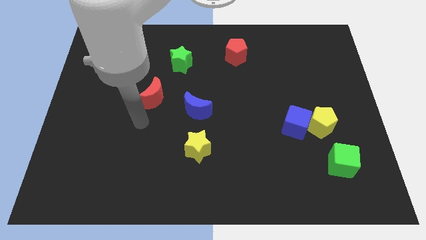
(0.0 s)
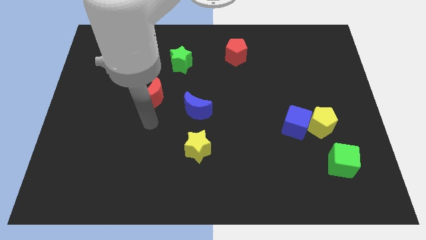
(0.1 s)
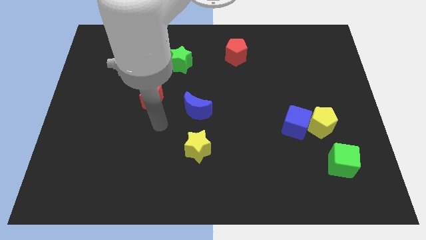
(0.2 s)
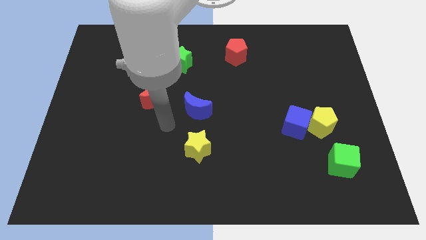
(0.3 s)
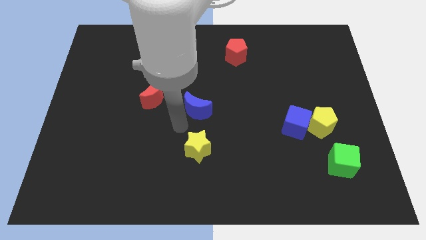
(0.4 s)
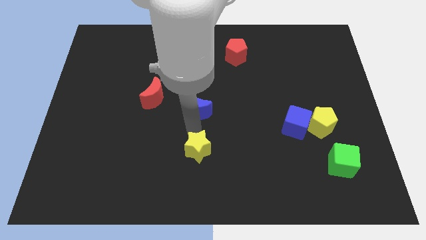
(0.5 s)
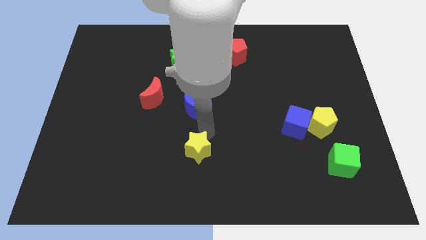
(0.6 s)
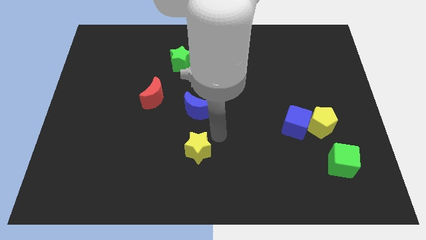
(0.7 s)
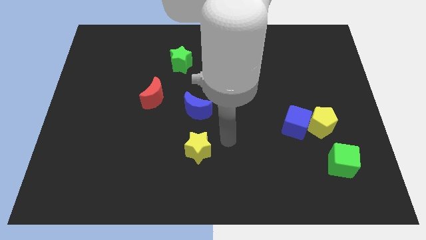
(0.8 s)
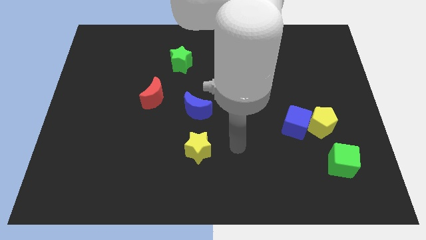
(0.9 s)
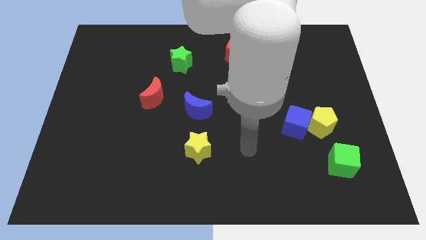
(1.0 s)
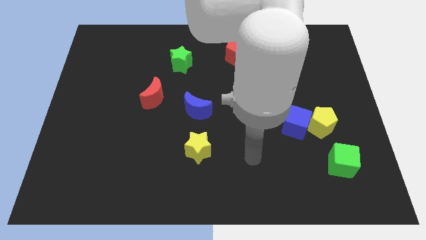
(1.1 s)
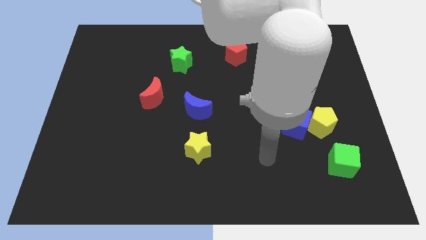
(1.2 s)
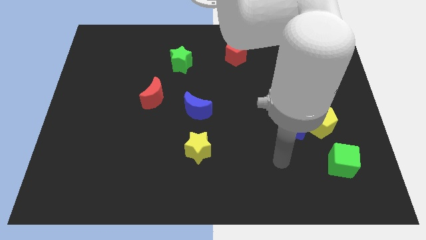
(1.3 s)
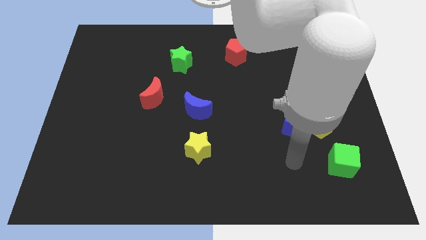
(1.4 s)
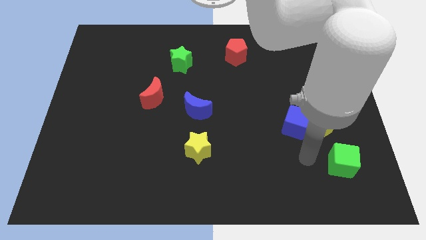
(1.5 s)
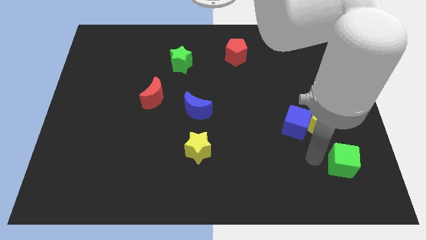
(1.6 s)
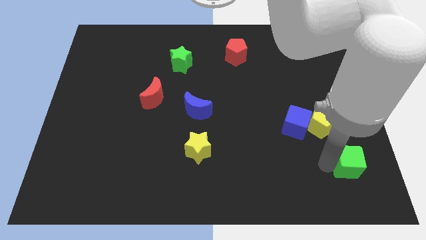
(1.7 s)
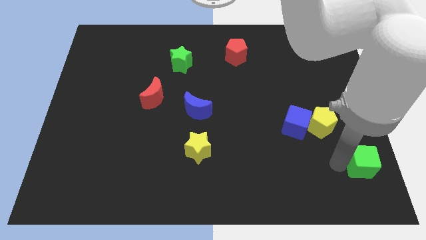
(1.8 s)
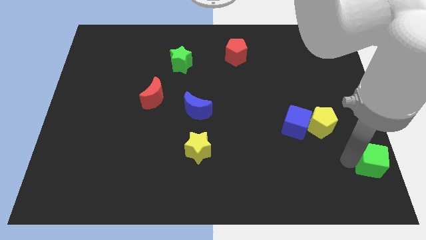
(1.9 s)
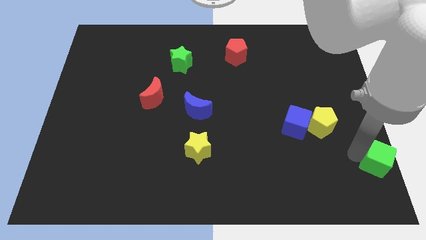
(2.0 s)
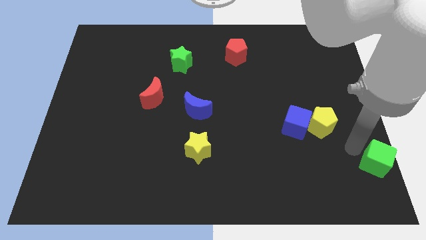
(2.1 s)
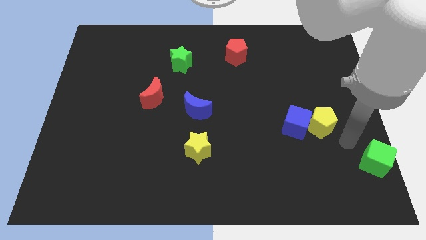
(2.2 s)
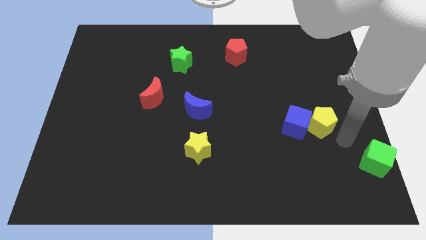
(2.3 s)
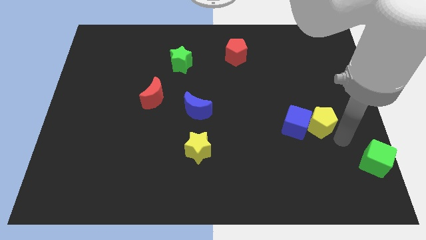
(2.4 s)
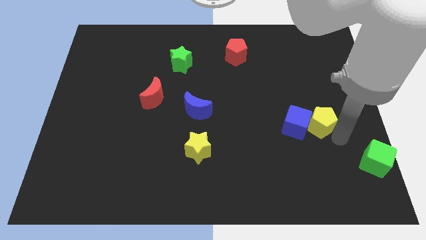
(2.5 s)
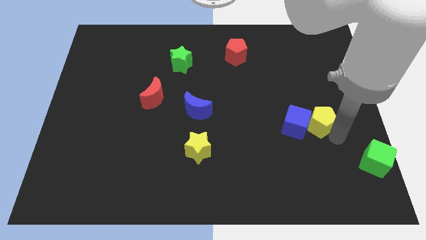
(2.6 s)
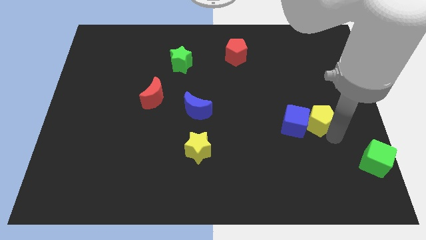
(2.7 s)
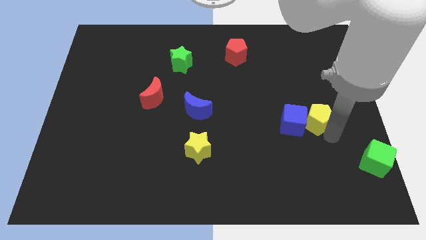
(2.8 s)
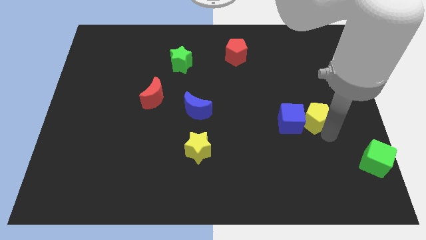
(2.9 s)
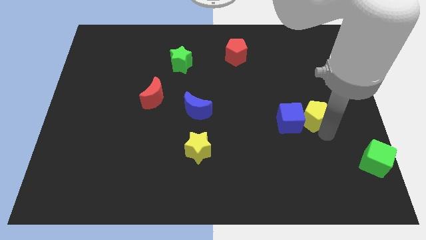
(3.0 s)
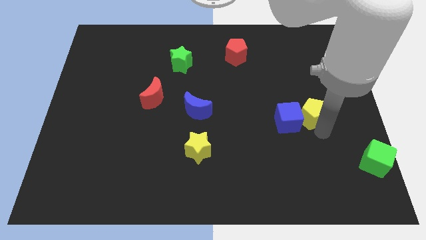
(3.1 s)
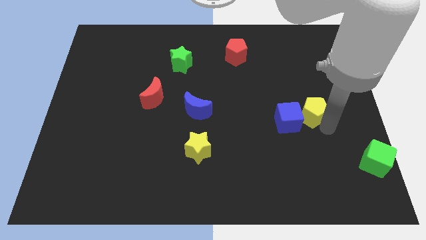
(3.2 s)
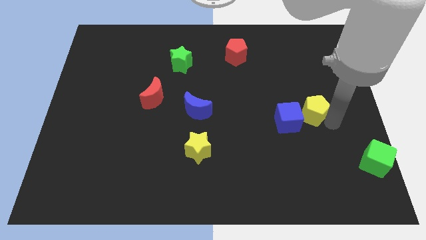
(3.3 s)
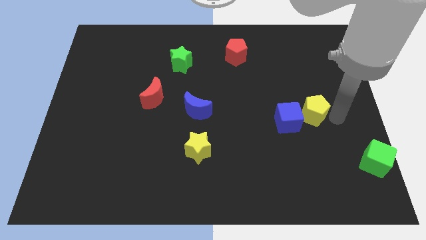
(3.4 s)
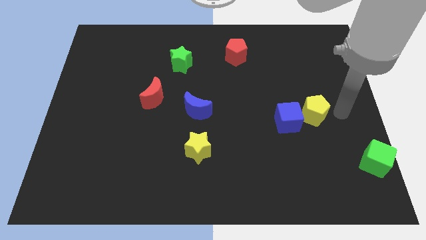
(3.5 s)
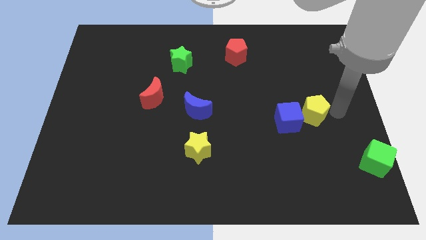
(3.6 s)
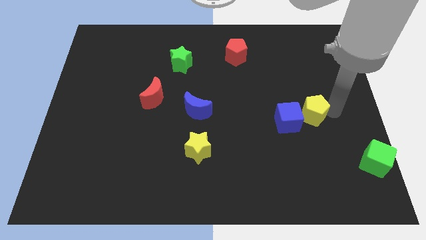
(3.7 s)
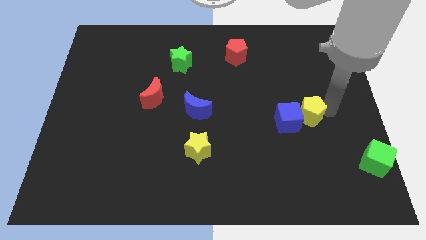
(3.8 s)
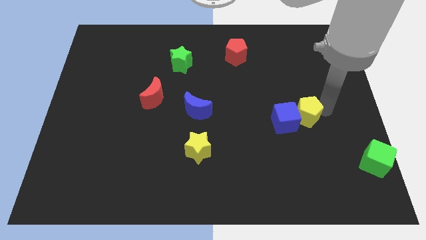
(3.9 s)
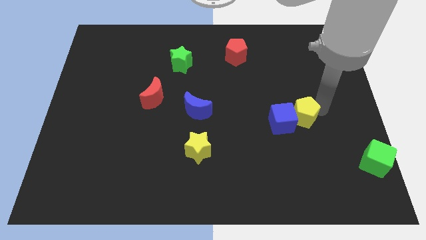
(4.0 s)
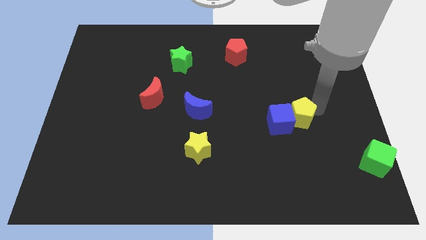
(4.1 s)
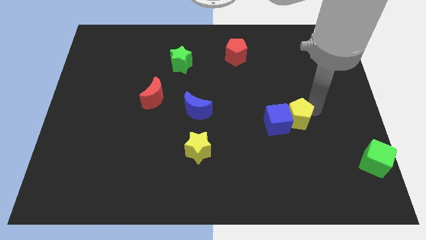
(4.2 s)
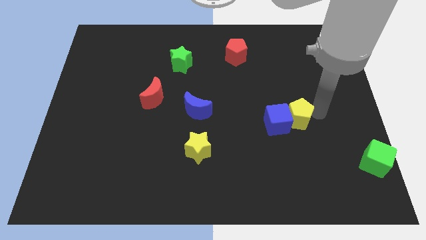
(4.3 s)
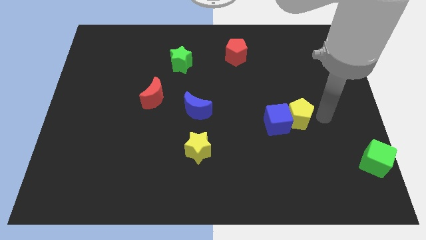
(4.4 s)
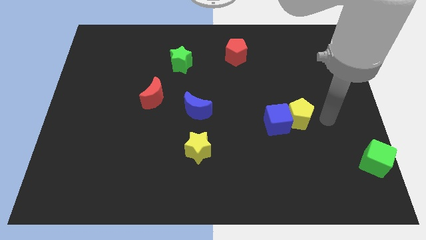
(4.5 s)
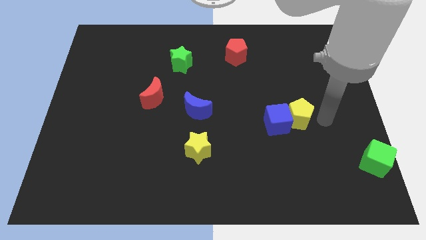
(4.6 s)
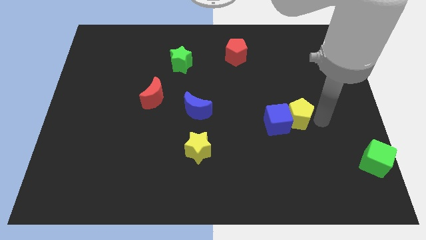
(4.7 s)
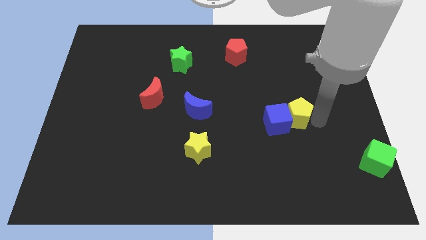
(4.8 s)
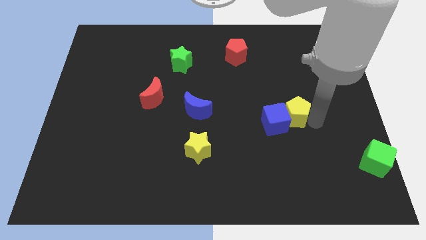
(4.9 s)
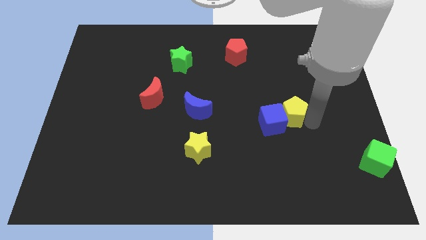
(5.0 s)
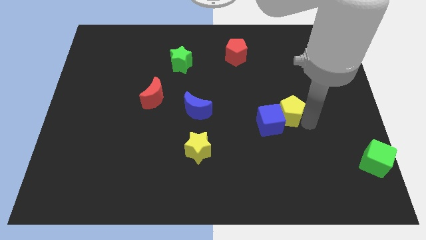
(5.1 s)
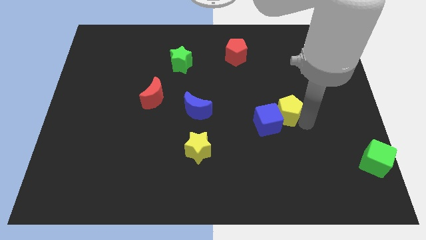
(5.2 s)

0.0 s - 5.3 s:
push the yellow pentagon left a bit

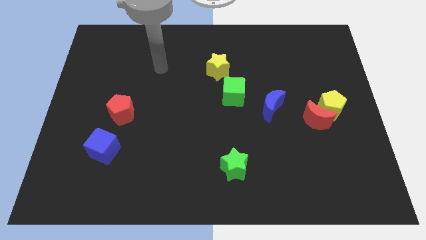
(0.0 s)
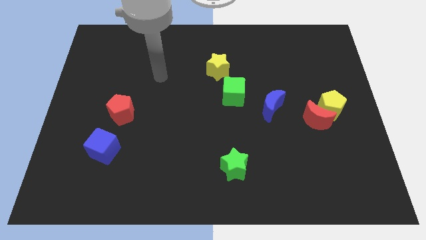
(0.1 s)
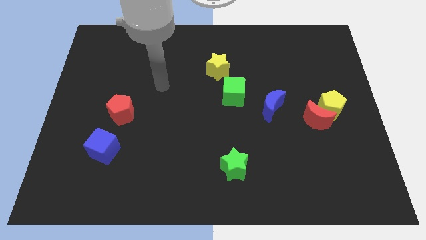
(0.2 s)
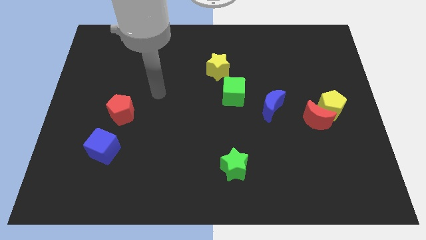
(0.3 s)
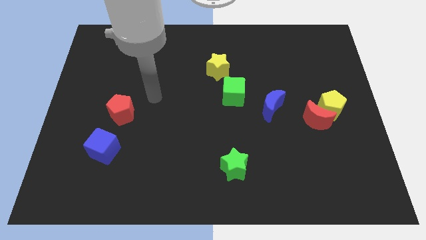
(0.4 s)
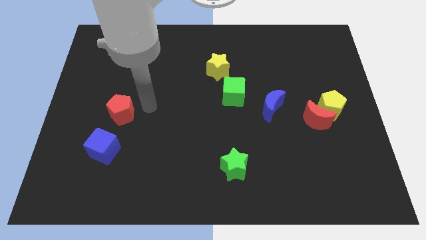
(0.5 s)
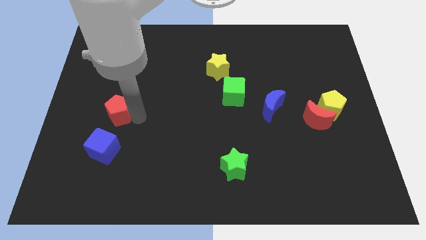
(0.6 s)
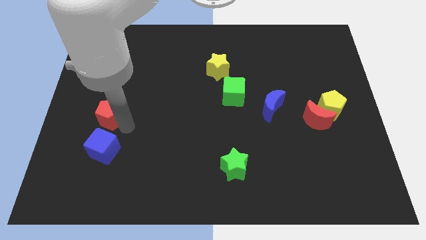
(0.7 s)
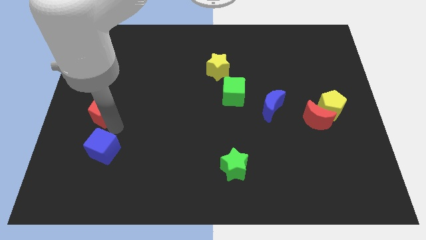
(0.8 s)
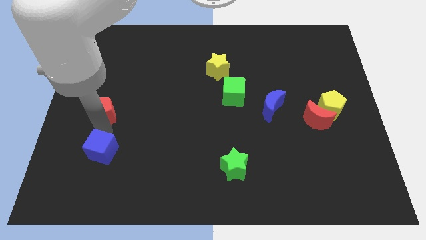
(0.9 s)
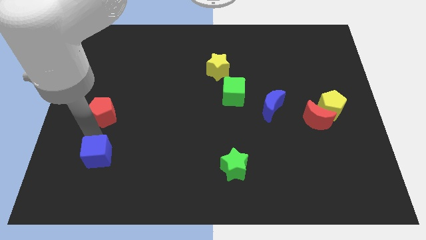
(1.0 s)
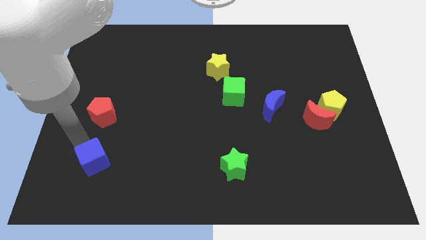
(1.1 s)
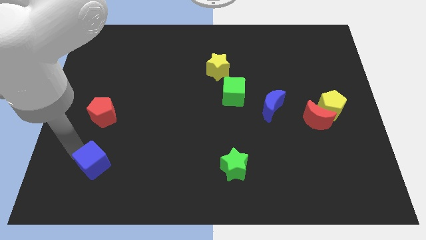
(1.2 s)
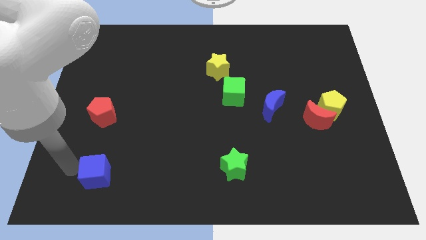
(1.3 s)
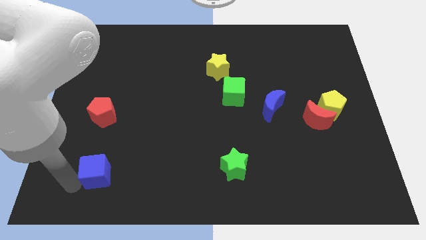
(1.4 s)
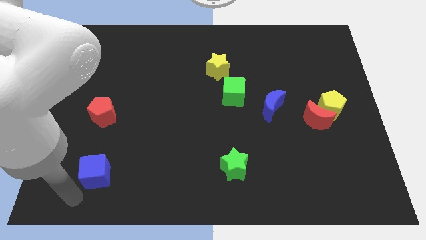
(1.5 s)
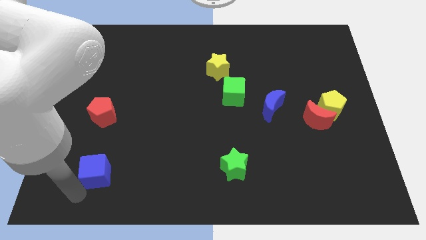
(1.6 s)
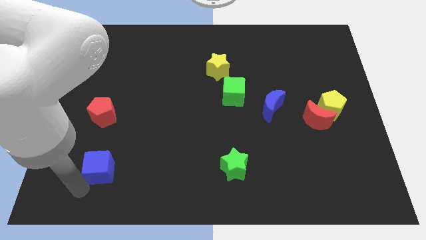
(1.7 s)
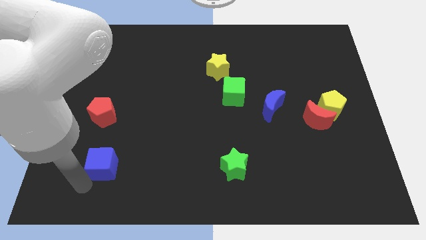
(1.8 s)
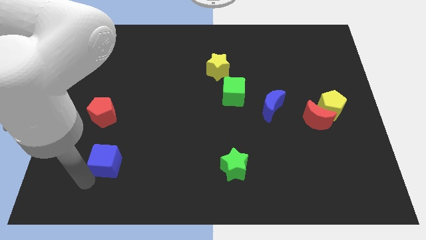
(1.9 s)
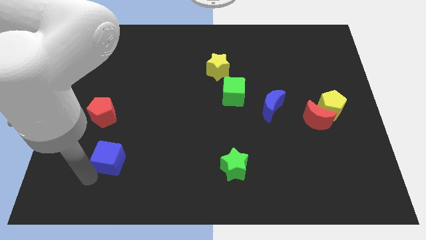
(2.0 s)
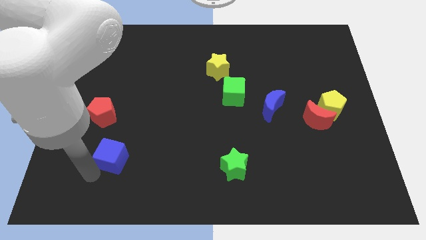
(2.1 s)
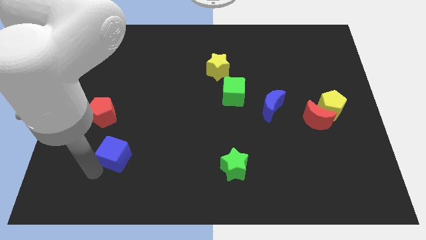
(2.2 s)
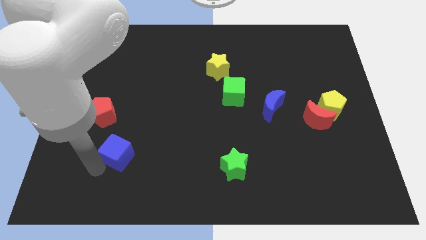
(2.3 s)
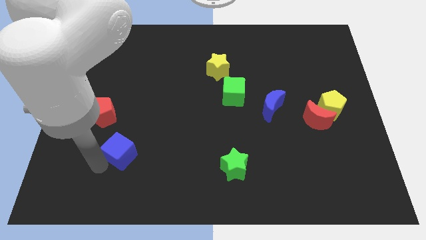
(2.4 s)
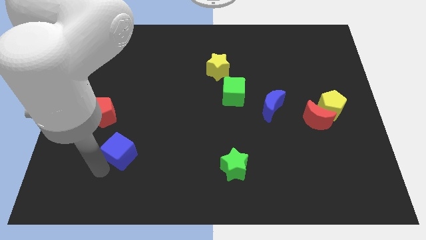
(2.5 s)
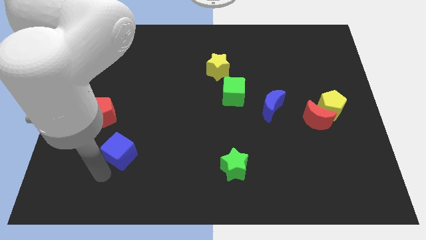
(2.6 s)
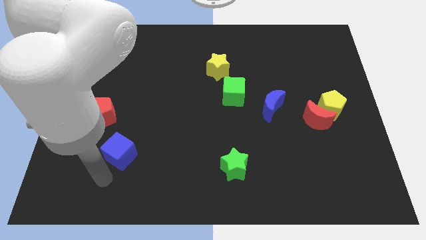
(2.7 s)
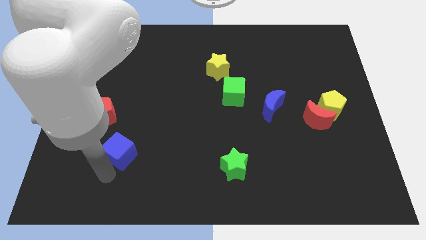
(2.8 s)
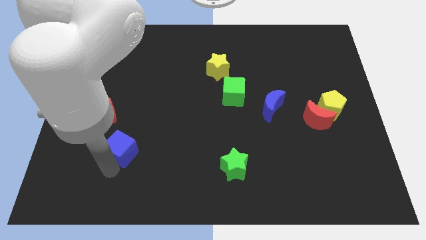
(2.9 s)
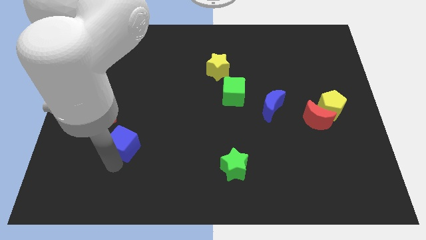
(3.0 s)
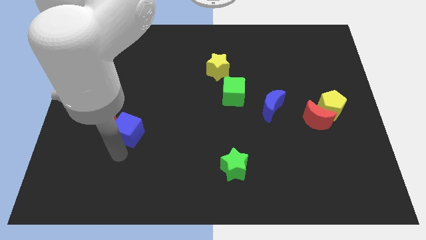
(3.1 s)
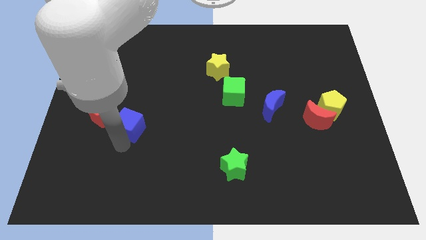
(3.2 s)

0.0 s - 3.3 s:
slide the blue cube upwards and to the right diagonally a bit
